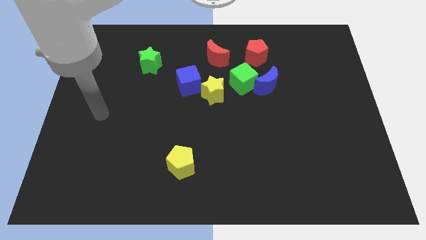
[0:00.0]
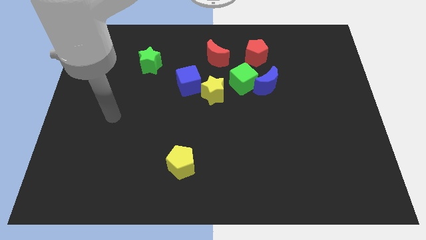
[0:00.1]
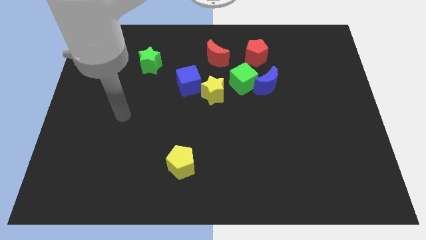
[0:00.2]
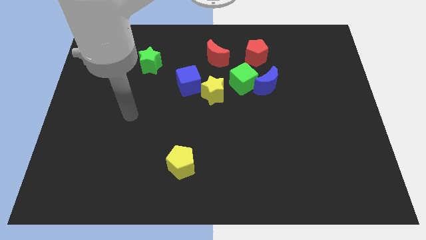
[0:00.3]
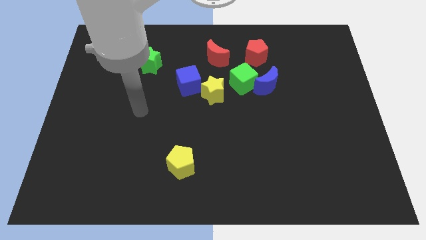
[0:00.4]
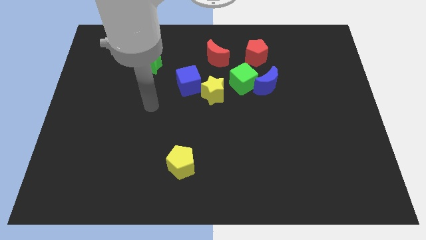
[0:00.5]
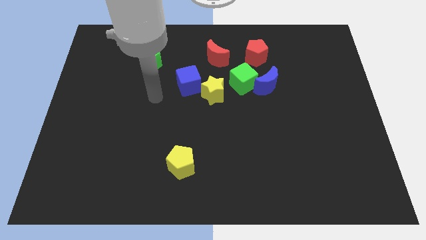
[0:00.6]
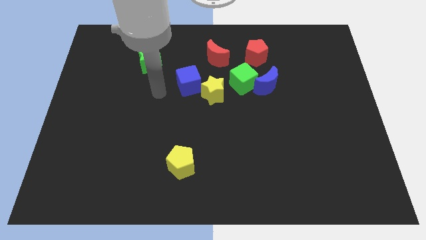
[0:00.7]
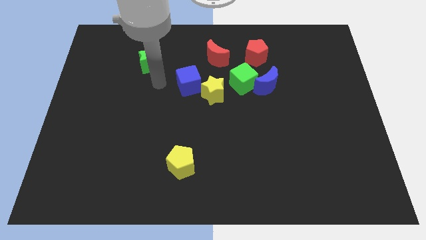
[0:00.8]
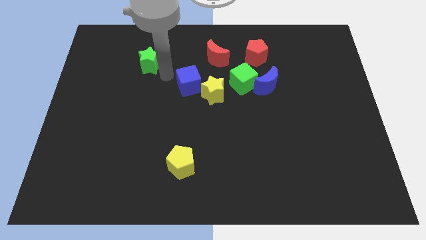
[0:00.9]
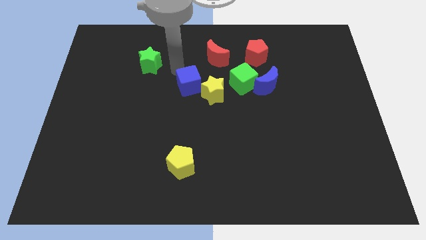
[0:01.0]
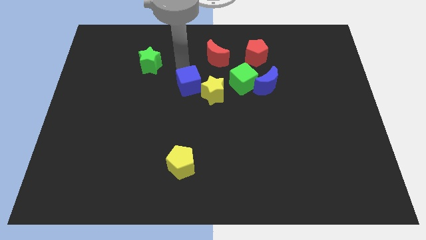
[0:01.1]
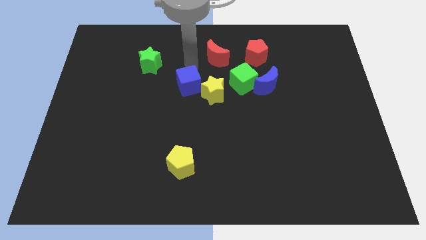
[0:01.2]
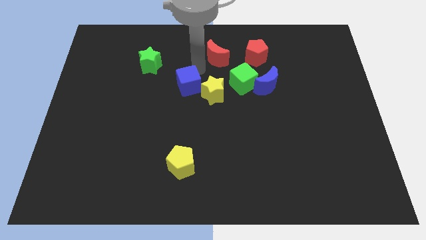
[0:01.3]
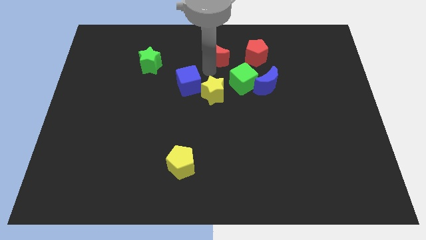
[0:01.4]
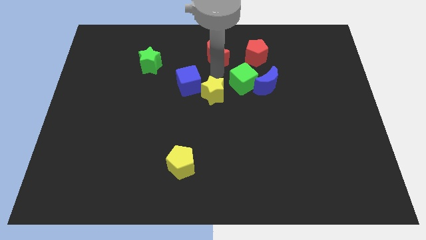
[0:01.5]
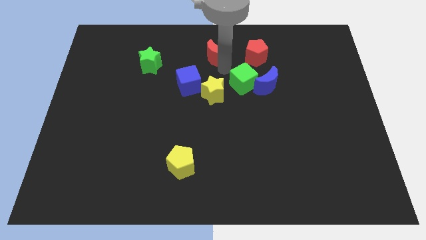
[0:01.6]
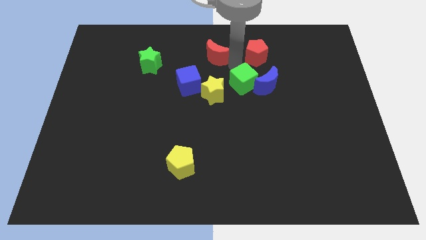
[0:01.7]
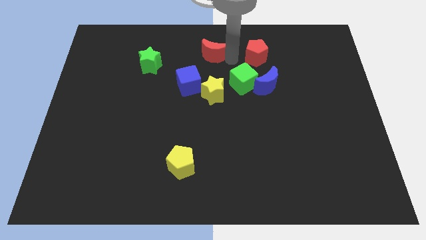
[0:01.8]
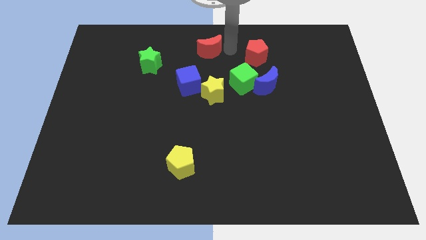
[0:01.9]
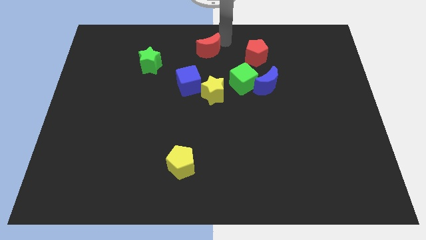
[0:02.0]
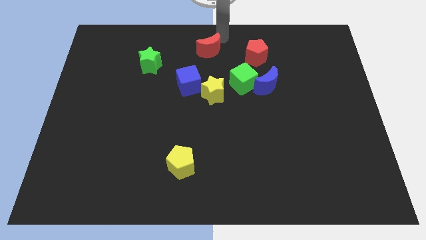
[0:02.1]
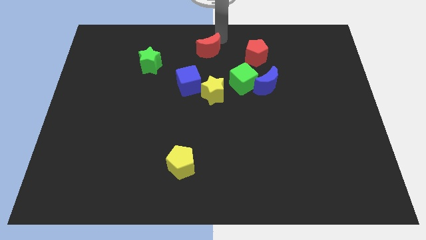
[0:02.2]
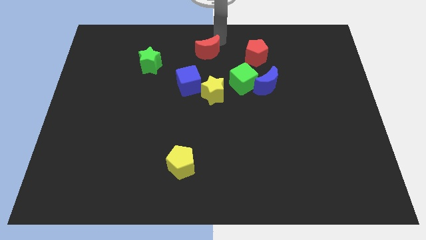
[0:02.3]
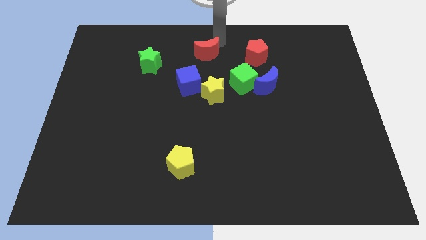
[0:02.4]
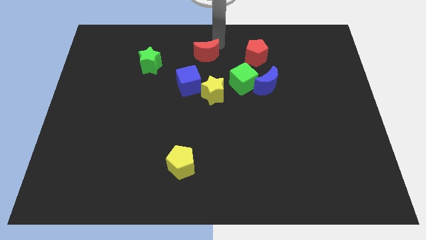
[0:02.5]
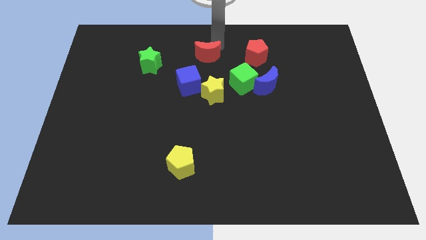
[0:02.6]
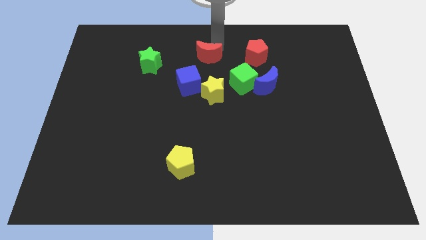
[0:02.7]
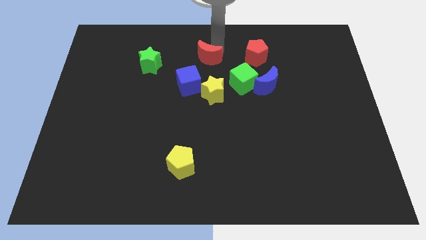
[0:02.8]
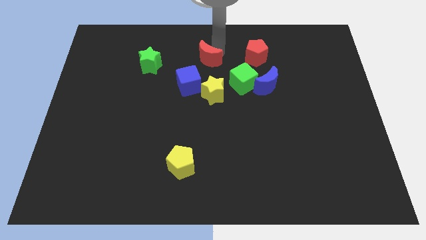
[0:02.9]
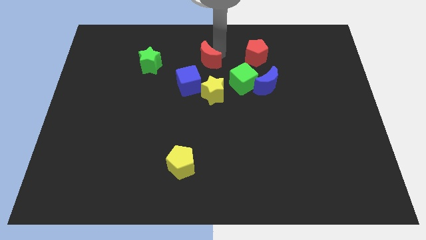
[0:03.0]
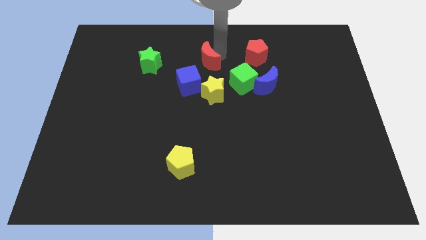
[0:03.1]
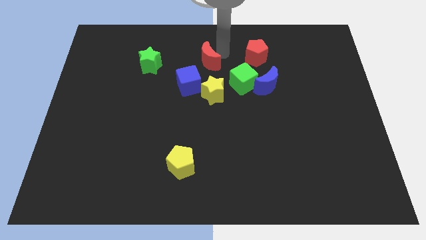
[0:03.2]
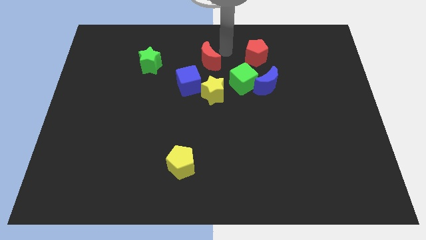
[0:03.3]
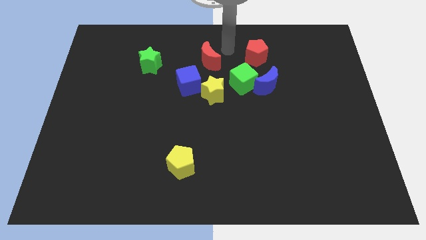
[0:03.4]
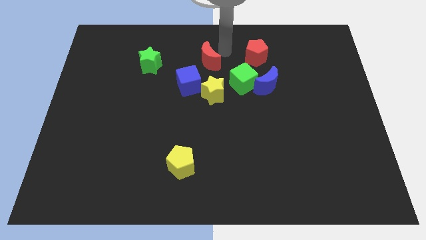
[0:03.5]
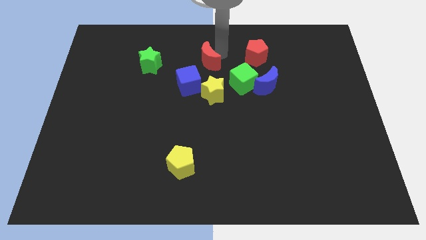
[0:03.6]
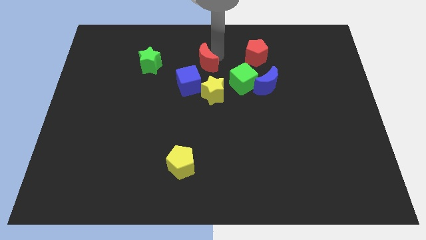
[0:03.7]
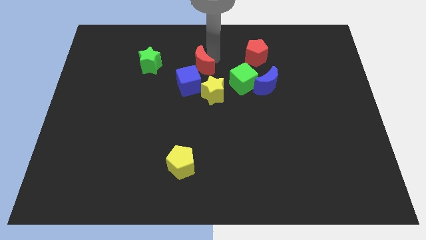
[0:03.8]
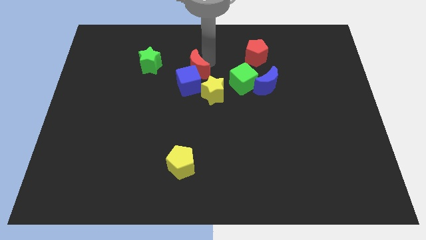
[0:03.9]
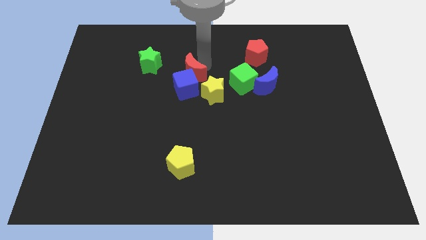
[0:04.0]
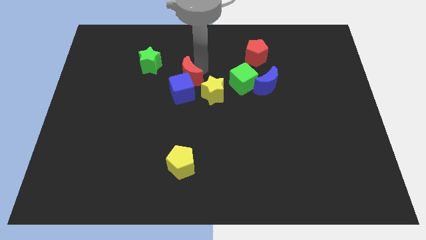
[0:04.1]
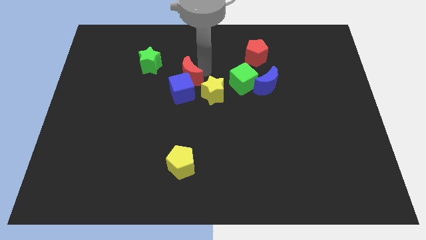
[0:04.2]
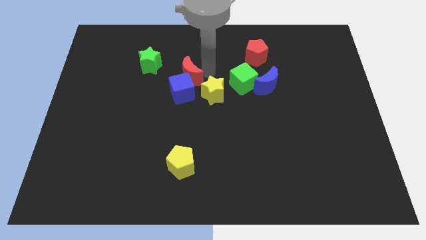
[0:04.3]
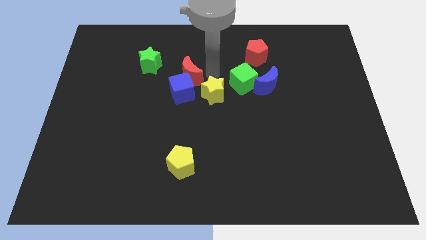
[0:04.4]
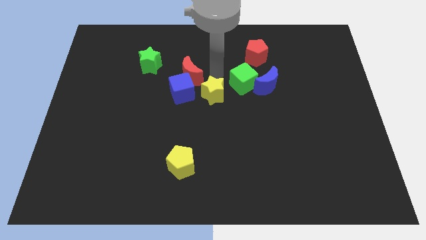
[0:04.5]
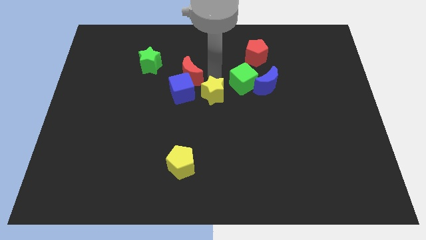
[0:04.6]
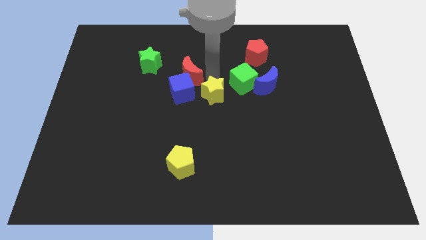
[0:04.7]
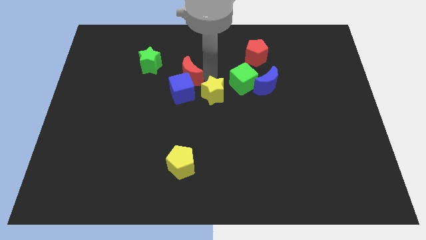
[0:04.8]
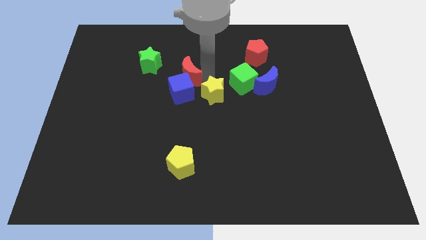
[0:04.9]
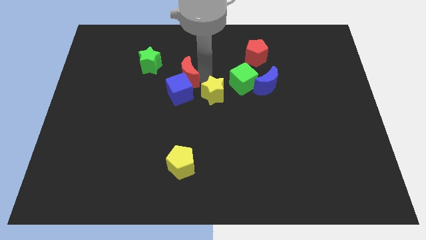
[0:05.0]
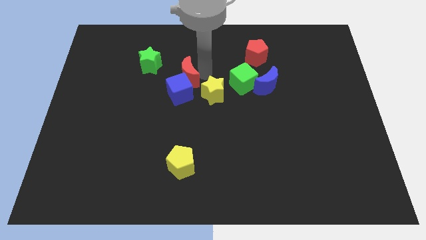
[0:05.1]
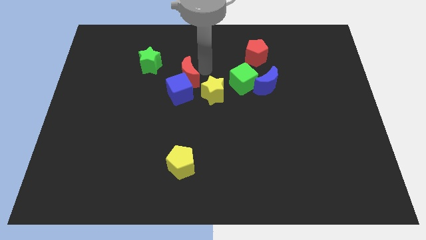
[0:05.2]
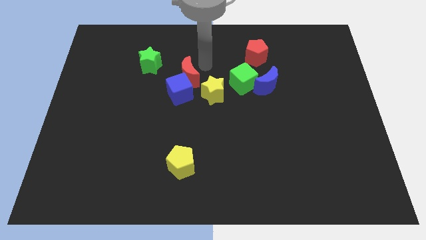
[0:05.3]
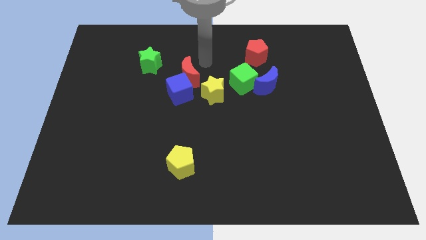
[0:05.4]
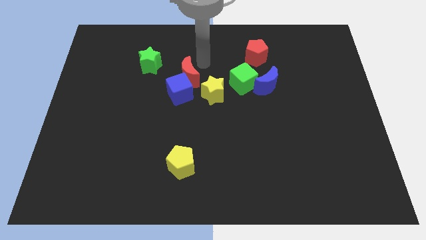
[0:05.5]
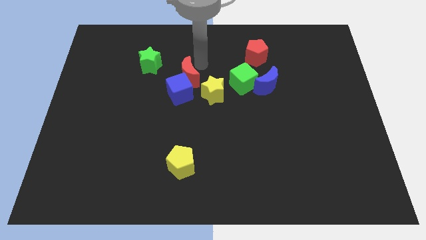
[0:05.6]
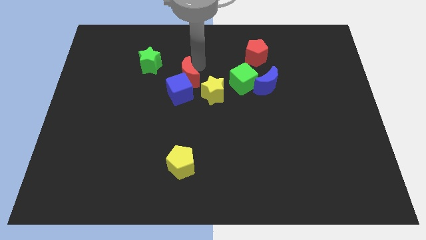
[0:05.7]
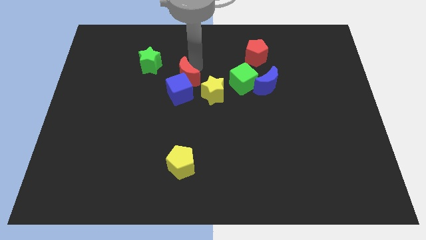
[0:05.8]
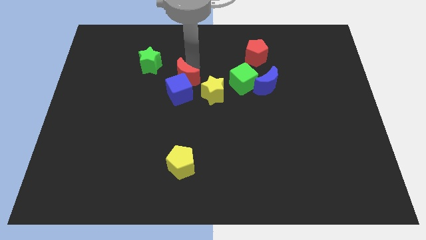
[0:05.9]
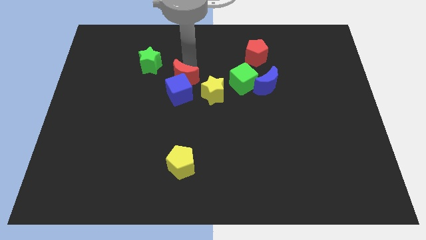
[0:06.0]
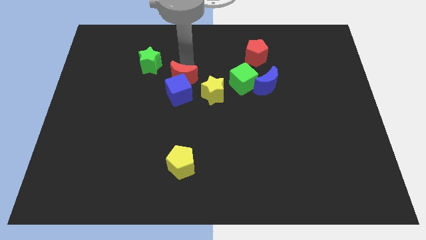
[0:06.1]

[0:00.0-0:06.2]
put the red moon just left of the yellow star

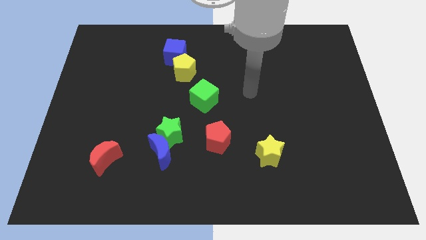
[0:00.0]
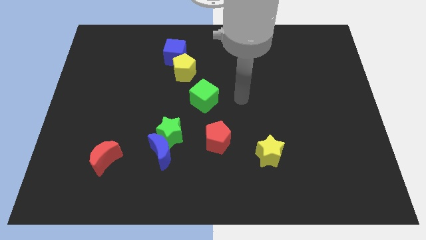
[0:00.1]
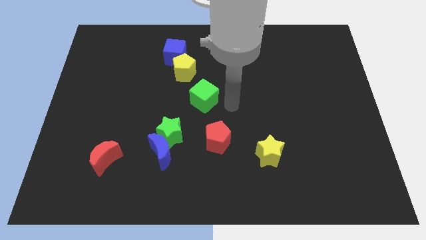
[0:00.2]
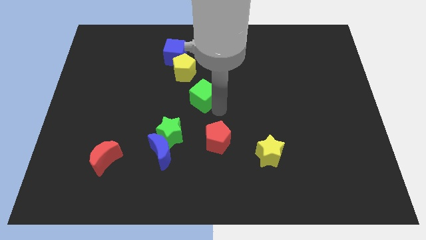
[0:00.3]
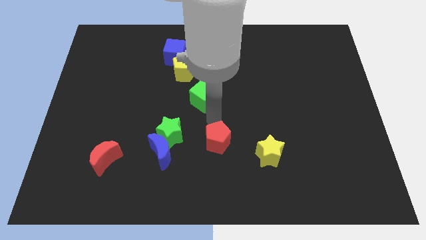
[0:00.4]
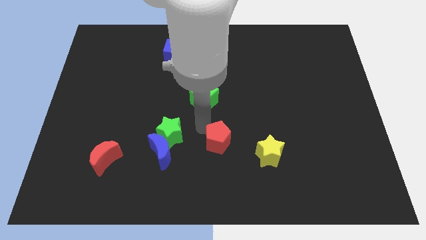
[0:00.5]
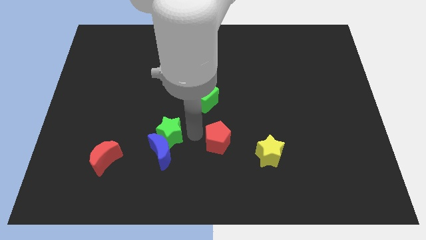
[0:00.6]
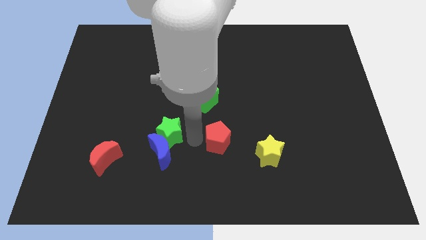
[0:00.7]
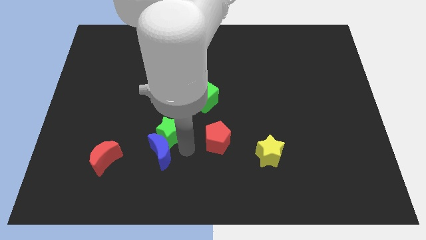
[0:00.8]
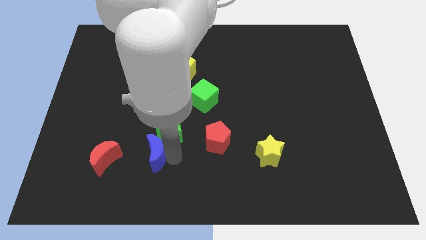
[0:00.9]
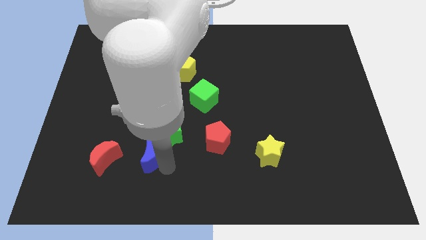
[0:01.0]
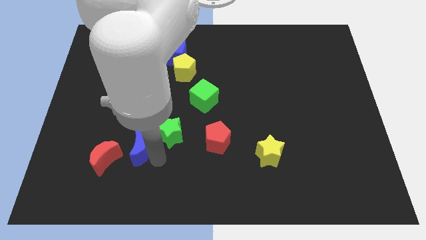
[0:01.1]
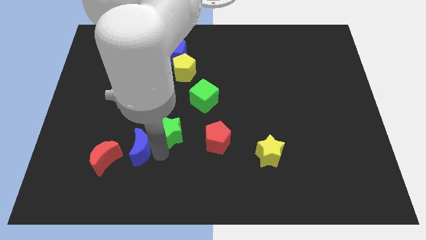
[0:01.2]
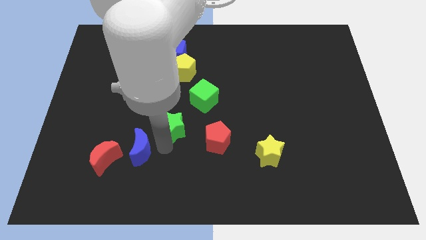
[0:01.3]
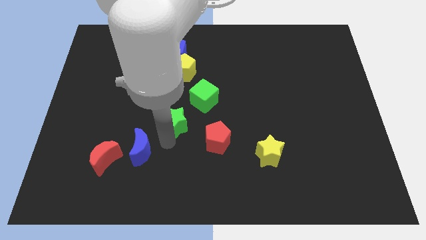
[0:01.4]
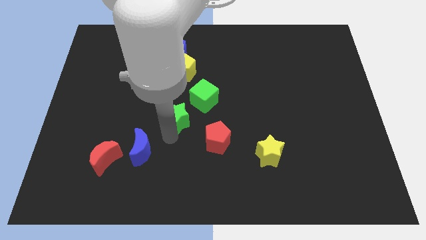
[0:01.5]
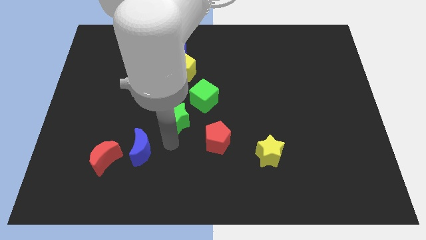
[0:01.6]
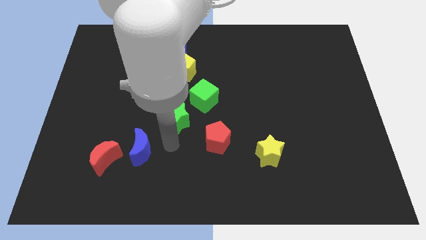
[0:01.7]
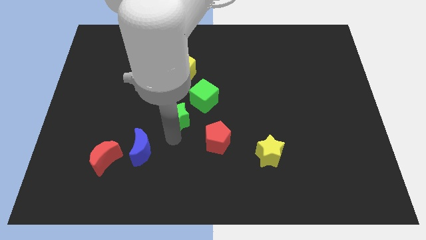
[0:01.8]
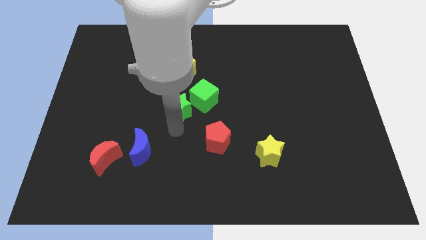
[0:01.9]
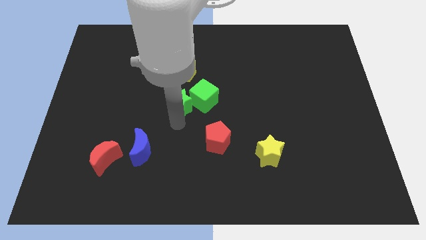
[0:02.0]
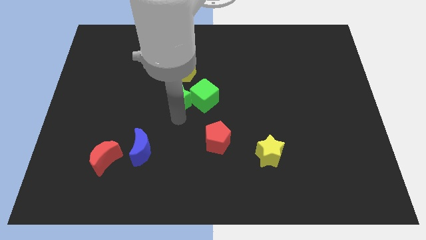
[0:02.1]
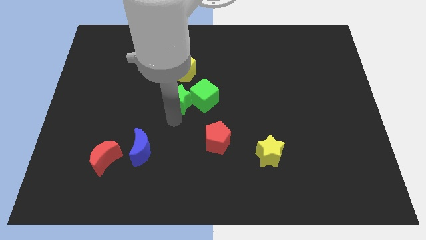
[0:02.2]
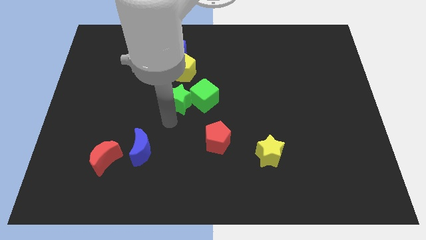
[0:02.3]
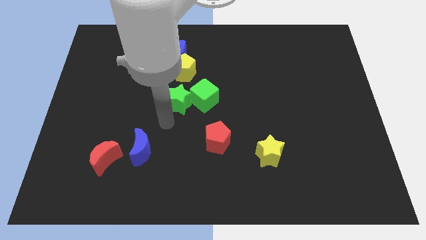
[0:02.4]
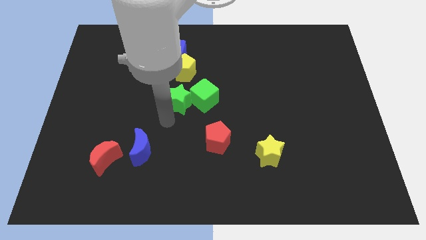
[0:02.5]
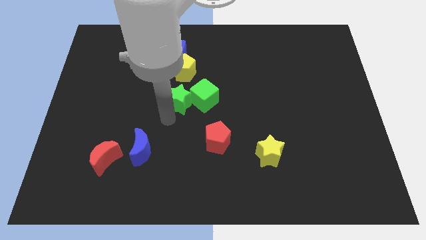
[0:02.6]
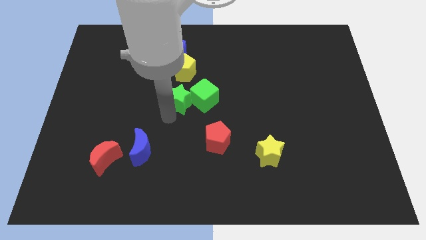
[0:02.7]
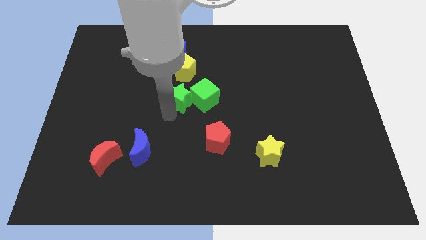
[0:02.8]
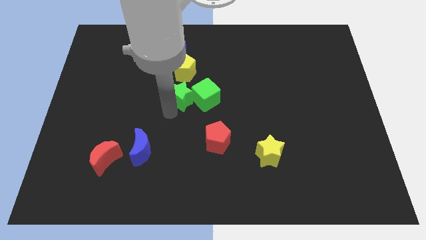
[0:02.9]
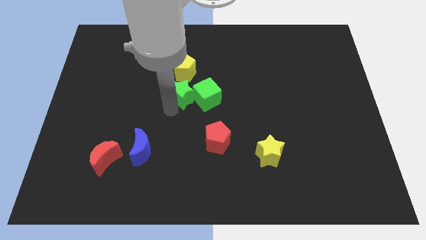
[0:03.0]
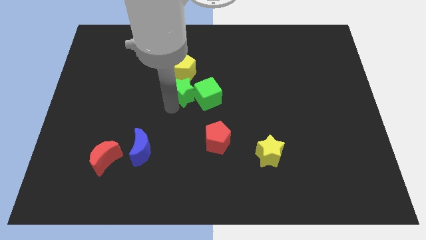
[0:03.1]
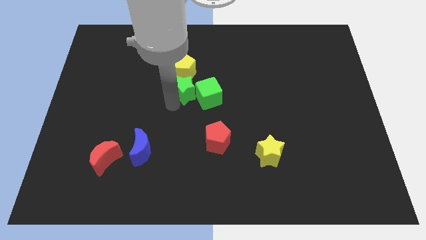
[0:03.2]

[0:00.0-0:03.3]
put the green star diagonally down and to the right of the yellow pentagon
